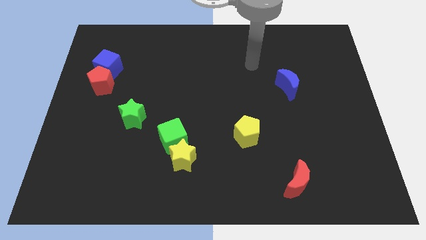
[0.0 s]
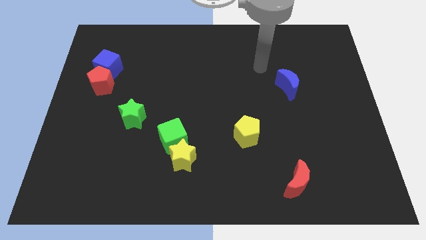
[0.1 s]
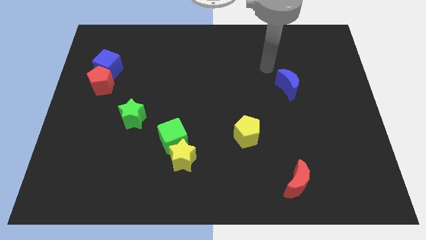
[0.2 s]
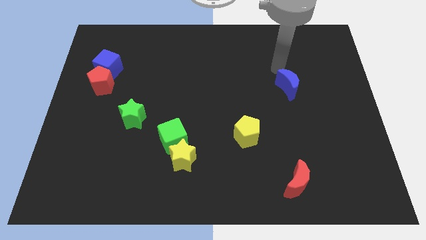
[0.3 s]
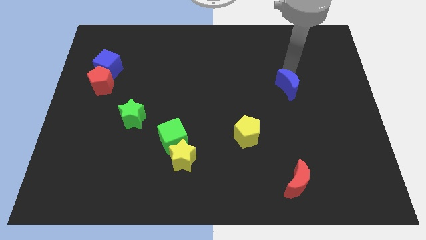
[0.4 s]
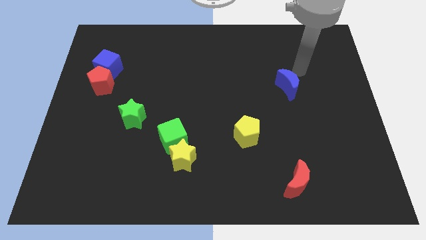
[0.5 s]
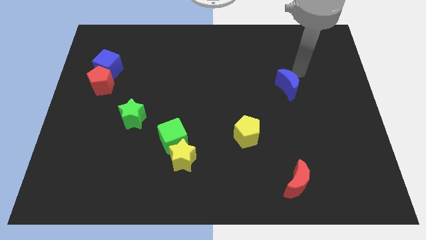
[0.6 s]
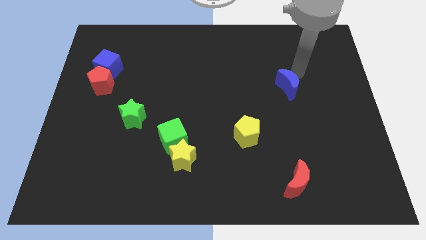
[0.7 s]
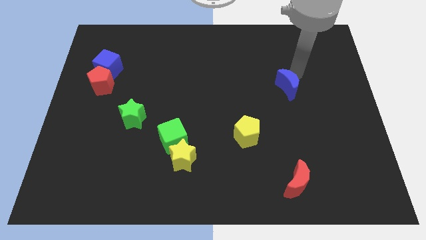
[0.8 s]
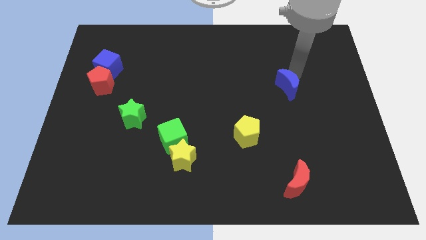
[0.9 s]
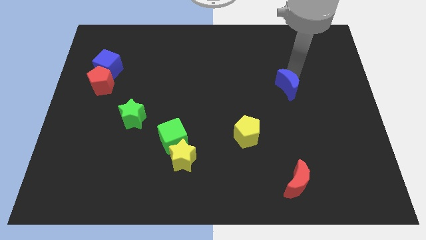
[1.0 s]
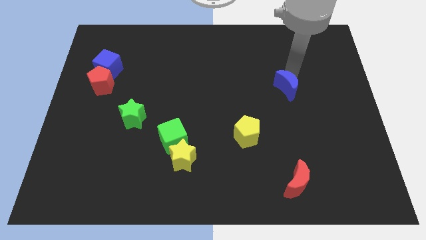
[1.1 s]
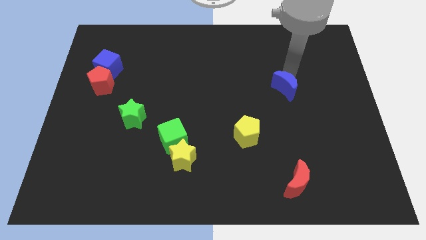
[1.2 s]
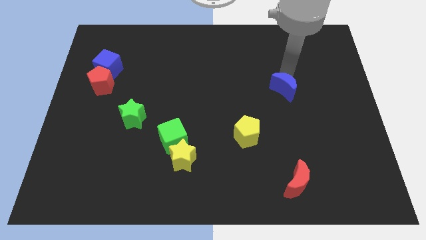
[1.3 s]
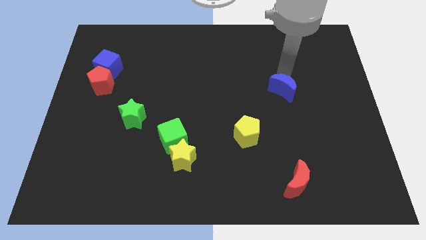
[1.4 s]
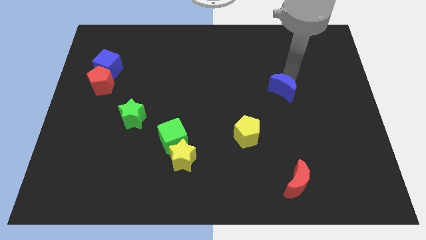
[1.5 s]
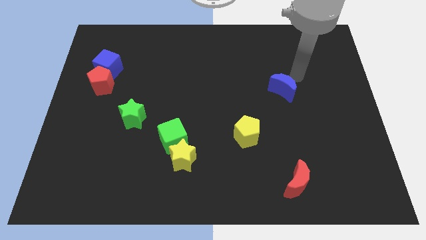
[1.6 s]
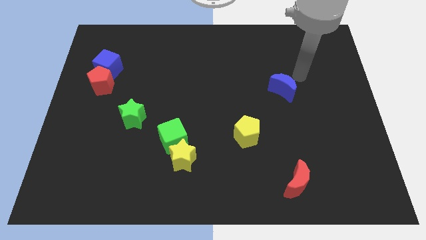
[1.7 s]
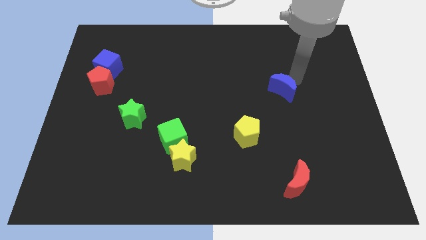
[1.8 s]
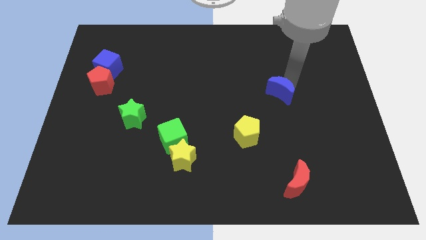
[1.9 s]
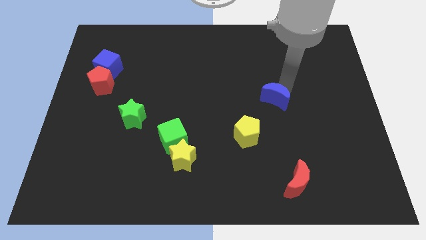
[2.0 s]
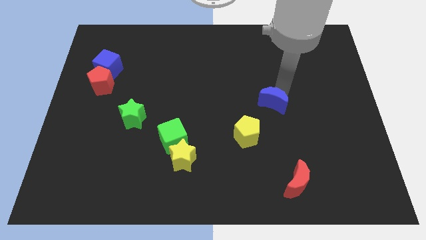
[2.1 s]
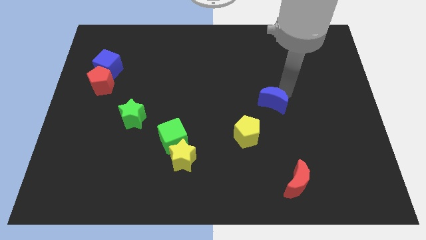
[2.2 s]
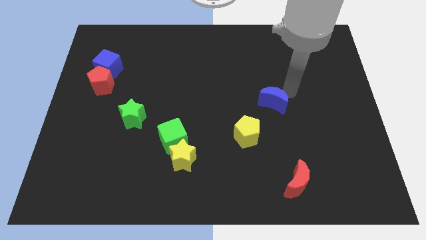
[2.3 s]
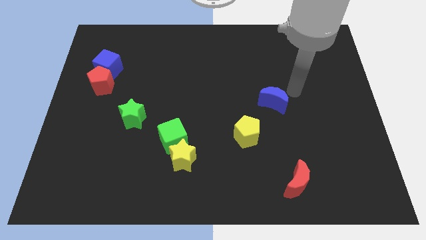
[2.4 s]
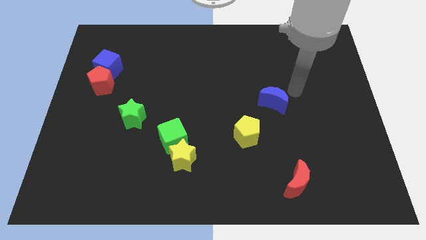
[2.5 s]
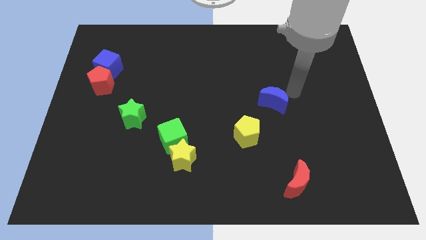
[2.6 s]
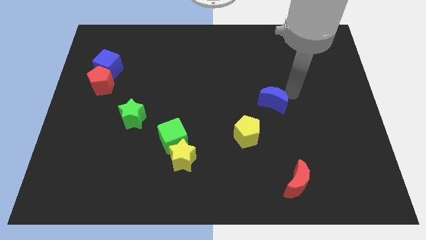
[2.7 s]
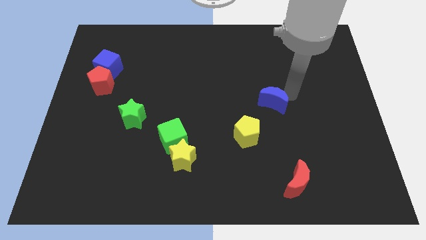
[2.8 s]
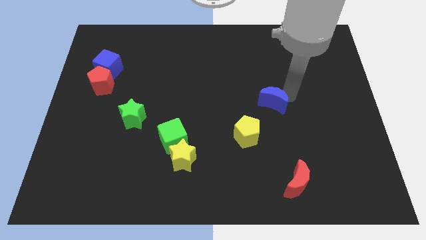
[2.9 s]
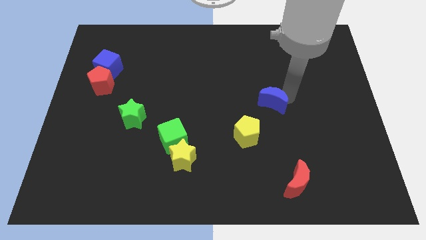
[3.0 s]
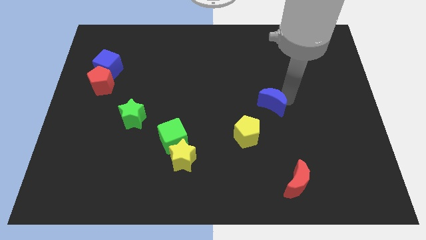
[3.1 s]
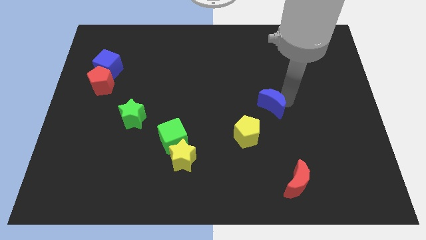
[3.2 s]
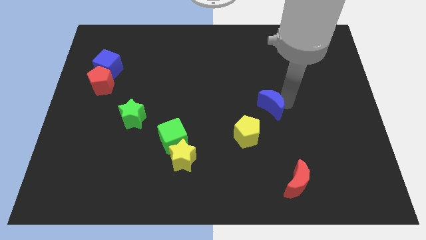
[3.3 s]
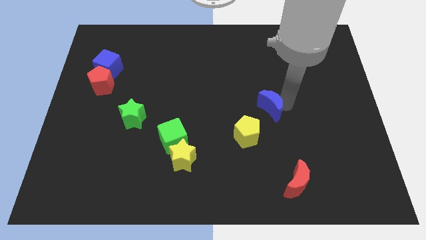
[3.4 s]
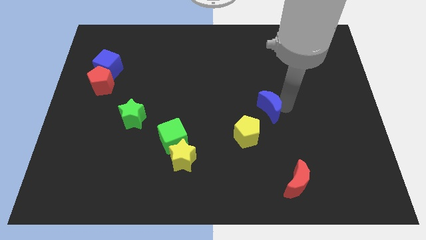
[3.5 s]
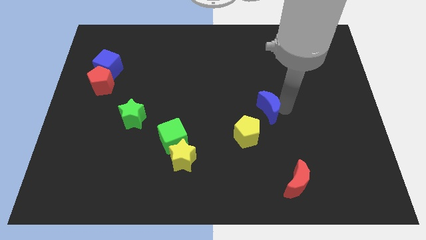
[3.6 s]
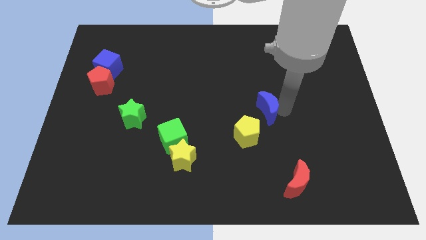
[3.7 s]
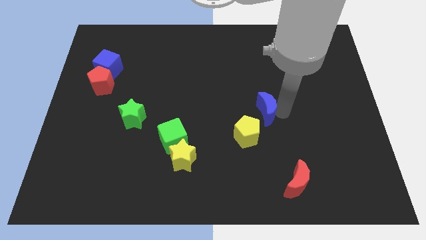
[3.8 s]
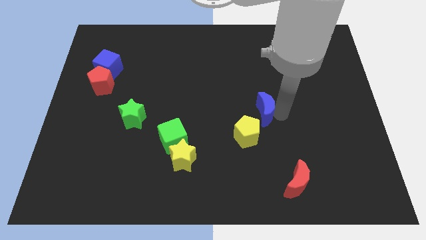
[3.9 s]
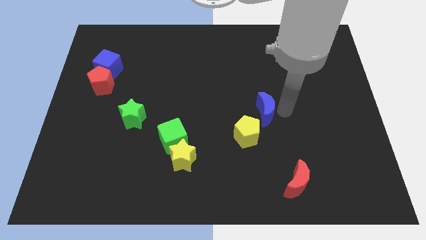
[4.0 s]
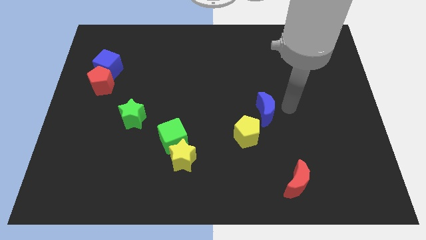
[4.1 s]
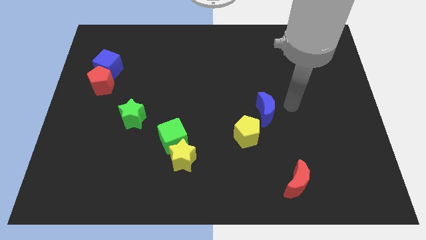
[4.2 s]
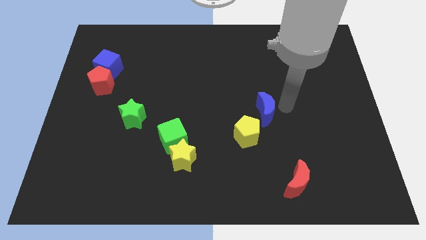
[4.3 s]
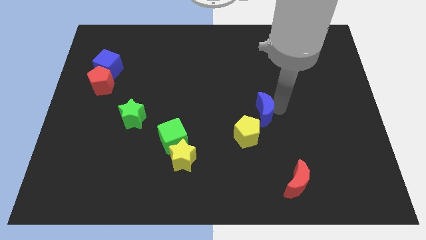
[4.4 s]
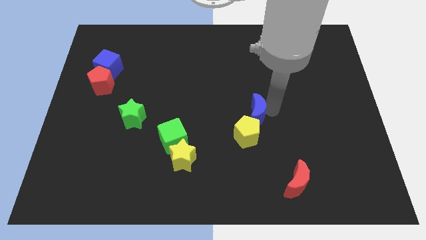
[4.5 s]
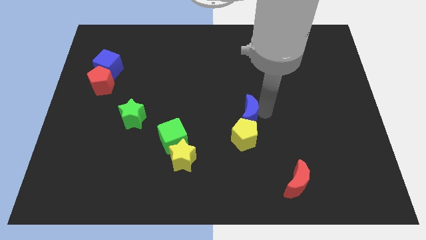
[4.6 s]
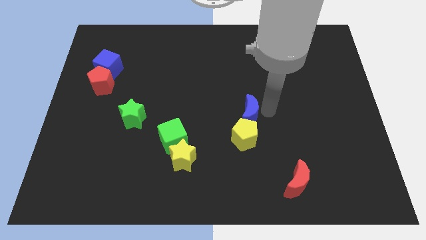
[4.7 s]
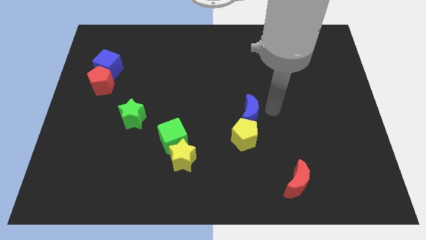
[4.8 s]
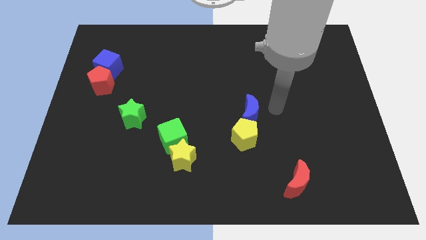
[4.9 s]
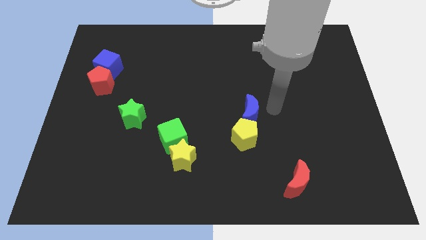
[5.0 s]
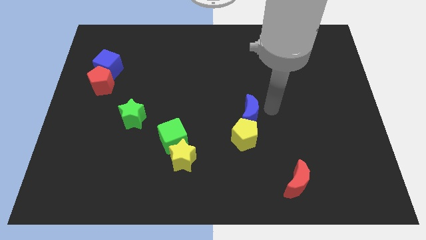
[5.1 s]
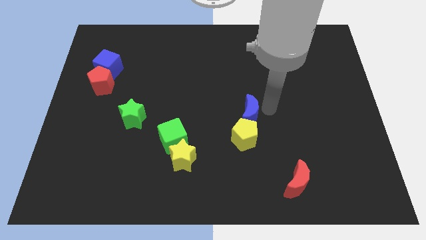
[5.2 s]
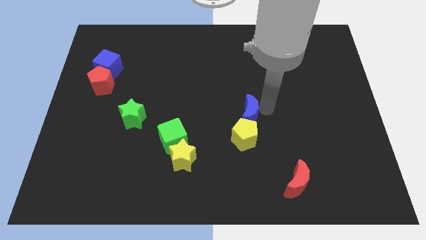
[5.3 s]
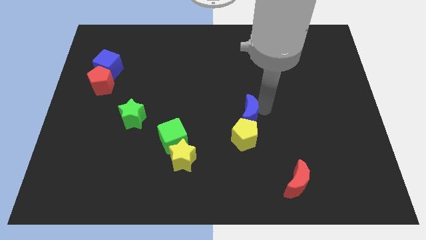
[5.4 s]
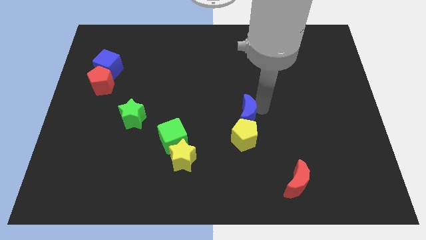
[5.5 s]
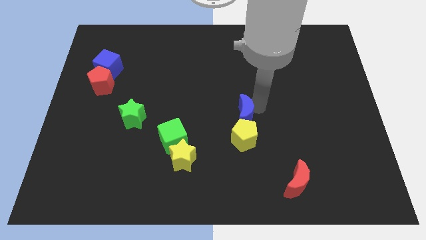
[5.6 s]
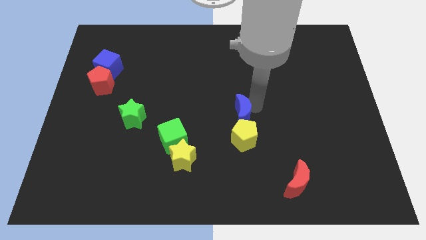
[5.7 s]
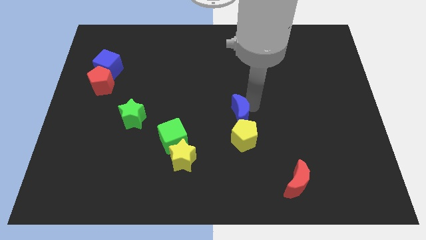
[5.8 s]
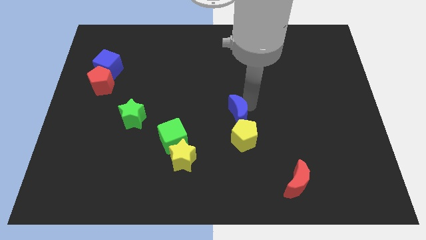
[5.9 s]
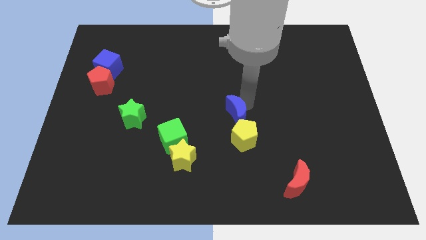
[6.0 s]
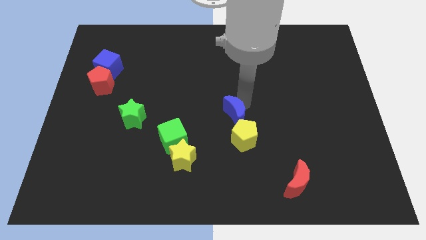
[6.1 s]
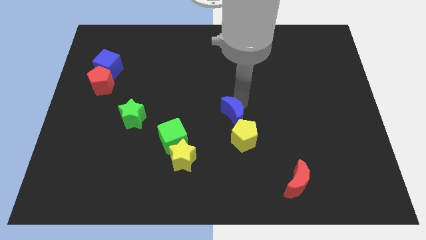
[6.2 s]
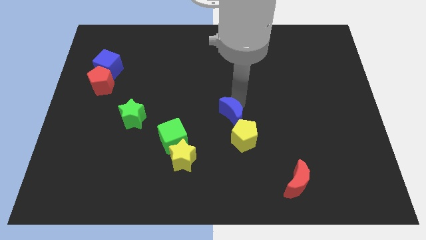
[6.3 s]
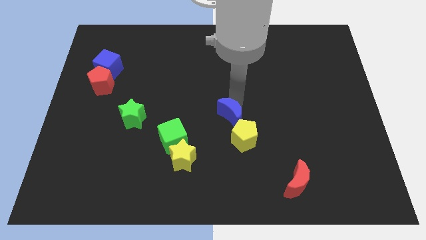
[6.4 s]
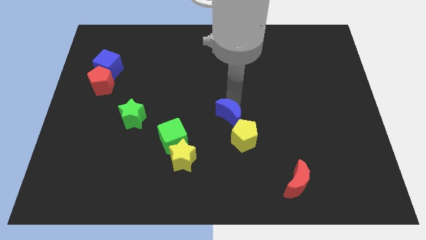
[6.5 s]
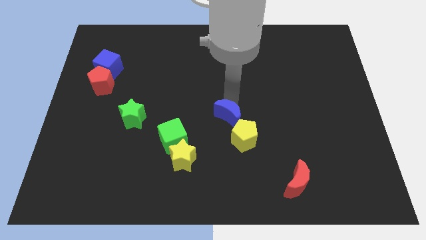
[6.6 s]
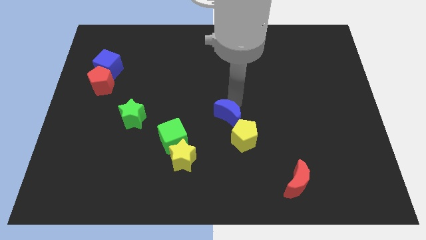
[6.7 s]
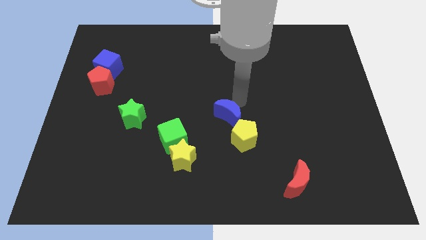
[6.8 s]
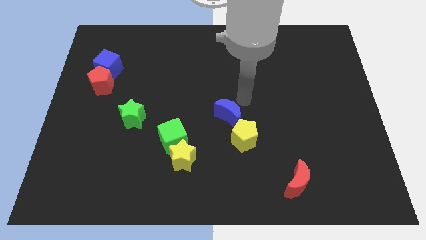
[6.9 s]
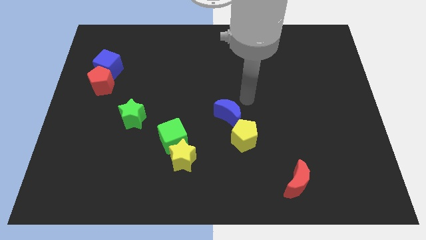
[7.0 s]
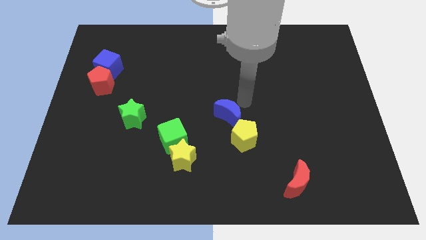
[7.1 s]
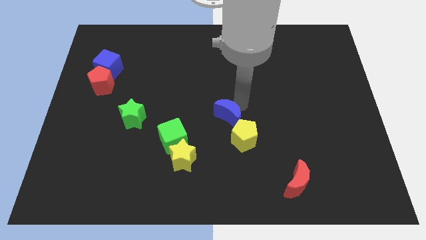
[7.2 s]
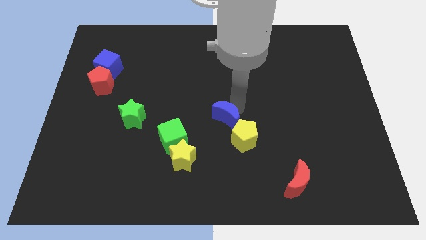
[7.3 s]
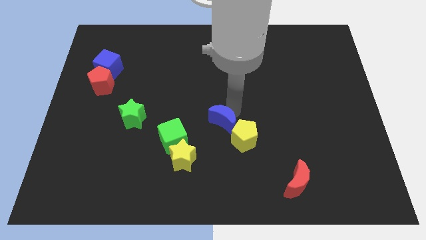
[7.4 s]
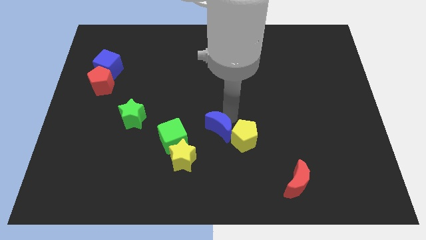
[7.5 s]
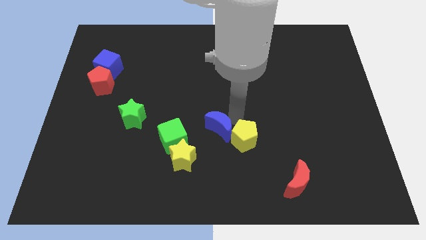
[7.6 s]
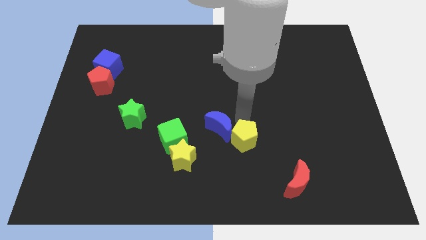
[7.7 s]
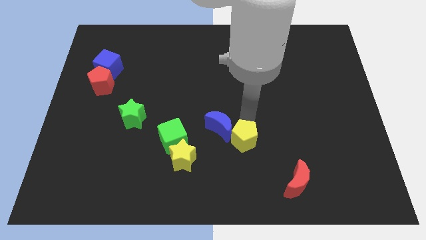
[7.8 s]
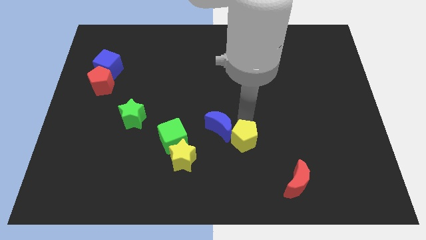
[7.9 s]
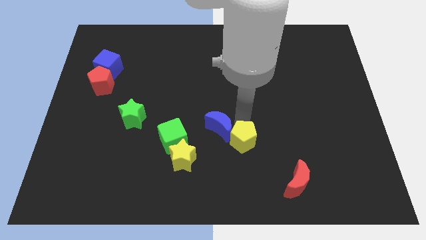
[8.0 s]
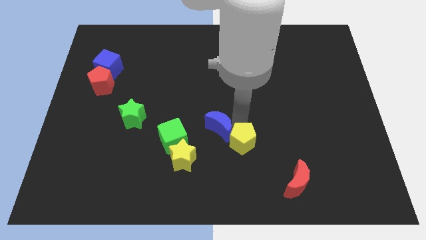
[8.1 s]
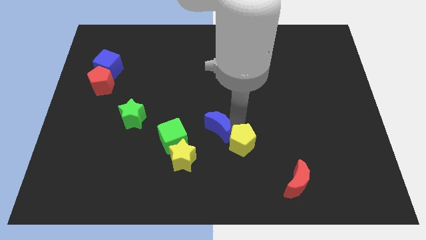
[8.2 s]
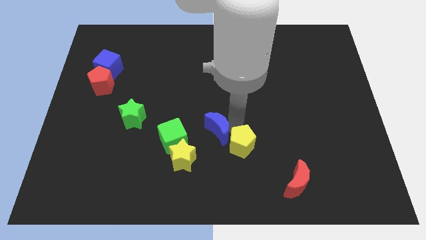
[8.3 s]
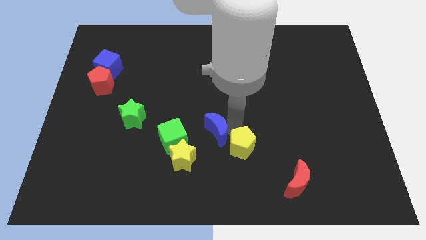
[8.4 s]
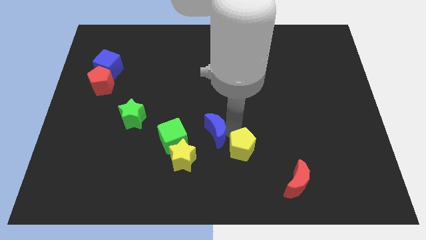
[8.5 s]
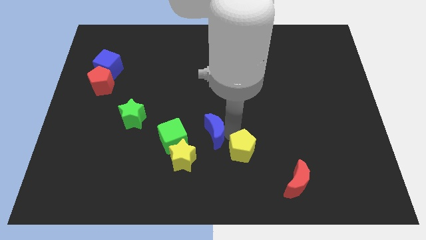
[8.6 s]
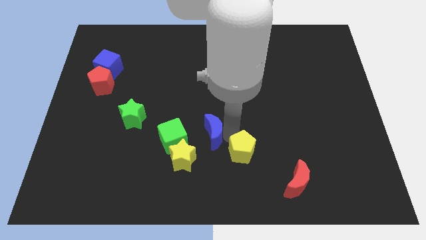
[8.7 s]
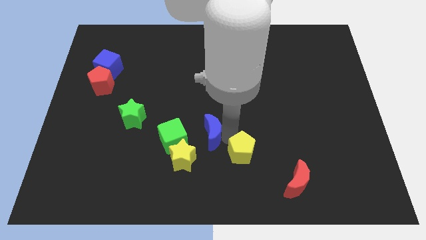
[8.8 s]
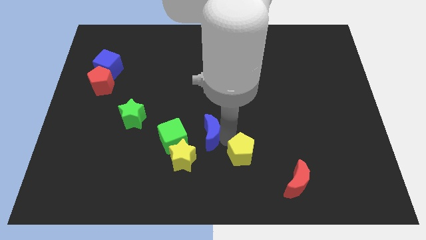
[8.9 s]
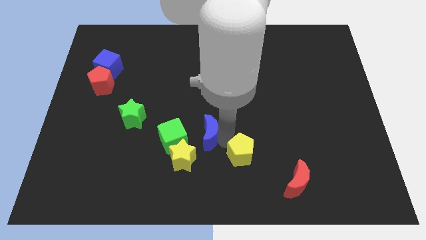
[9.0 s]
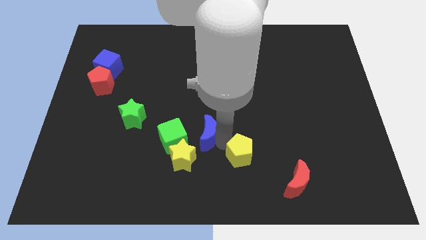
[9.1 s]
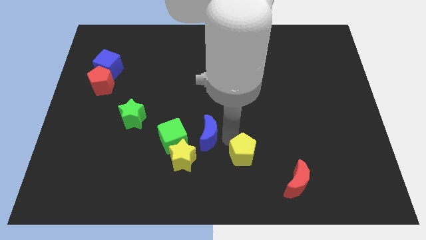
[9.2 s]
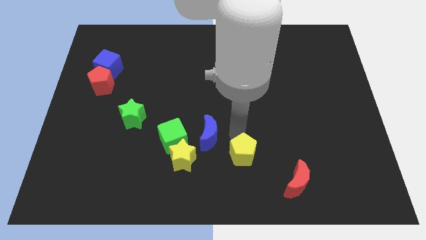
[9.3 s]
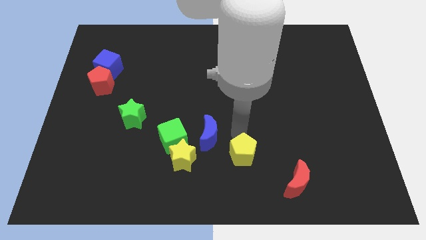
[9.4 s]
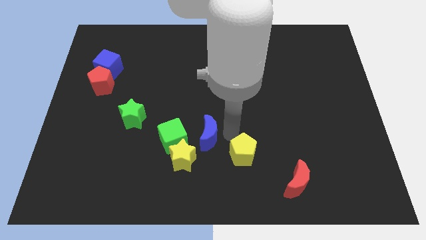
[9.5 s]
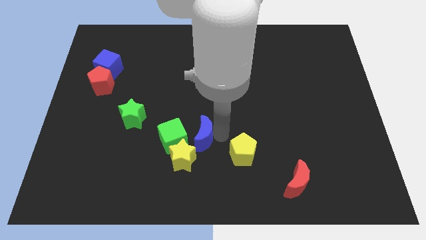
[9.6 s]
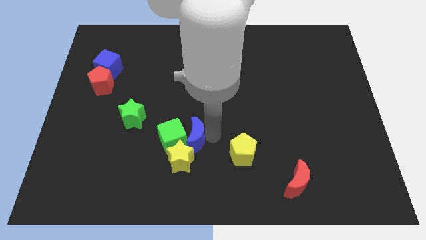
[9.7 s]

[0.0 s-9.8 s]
push the blue moon close to the green cube
